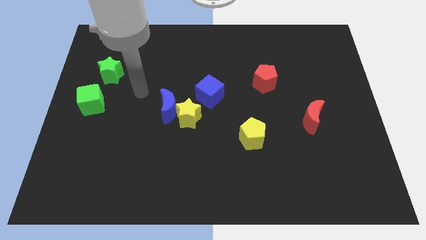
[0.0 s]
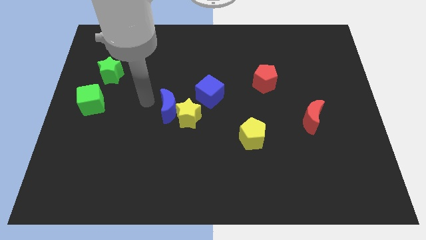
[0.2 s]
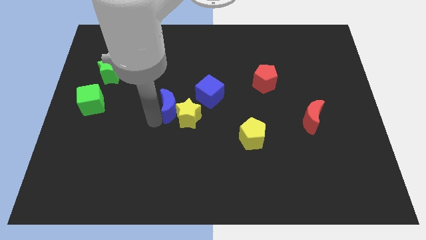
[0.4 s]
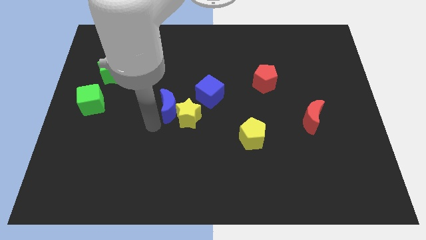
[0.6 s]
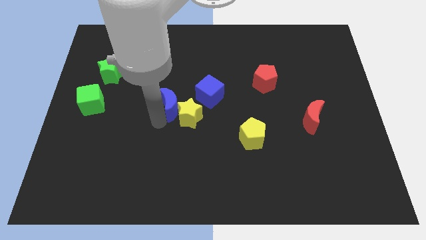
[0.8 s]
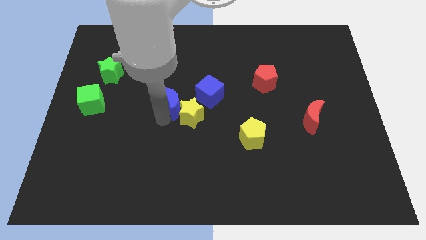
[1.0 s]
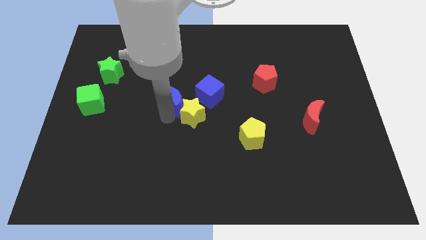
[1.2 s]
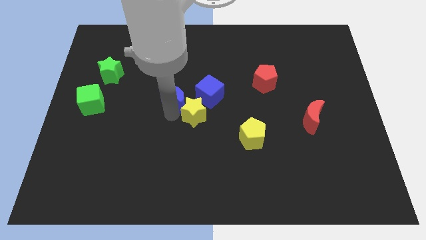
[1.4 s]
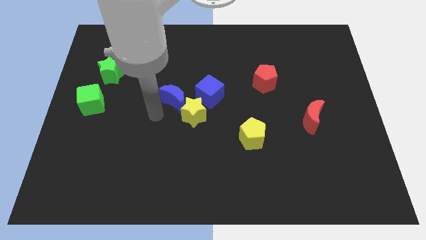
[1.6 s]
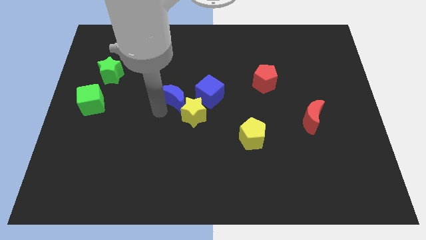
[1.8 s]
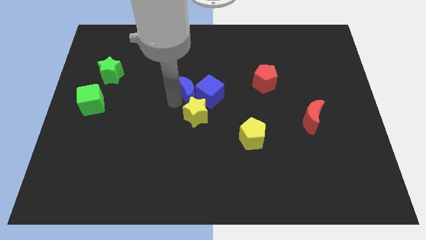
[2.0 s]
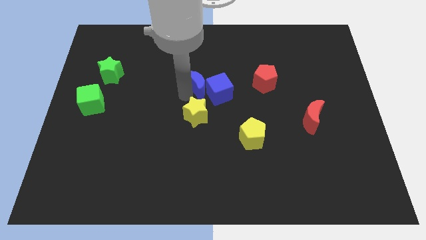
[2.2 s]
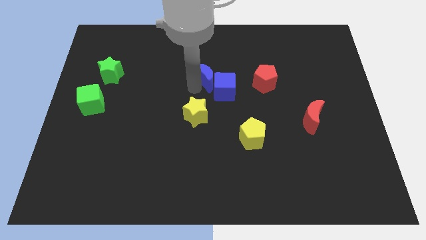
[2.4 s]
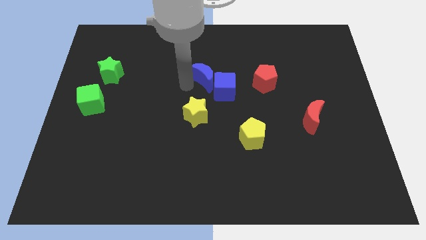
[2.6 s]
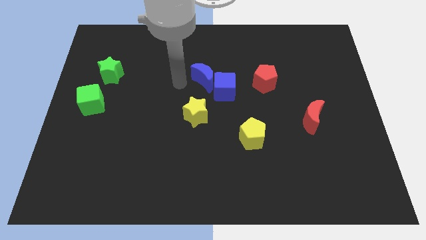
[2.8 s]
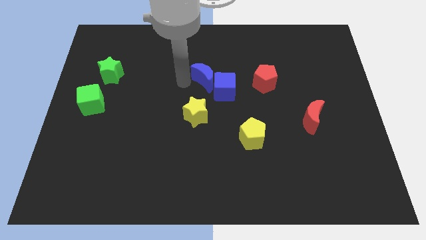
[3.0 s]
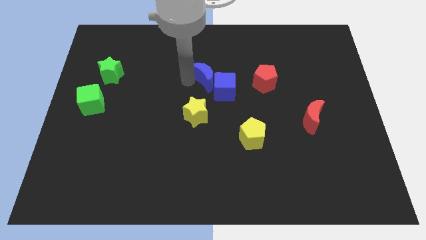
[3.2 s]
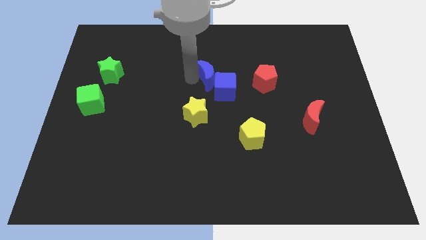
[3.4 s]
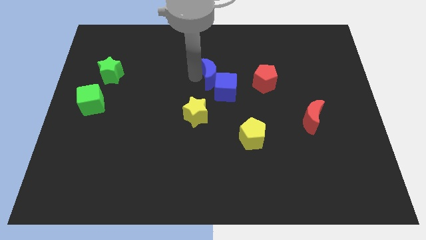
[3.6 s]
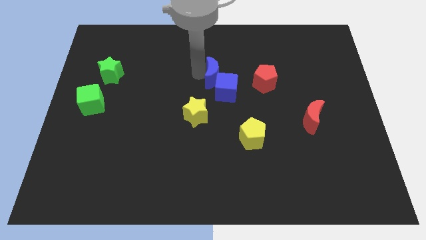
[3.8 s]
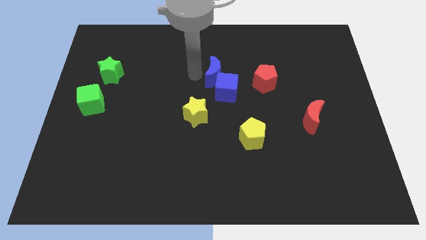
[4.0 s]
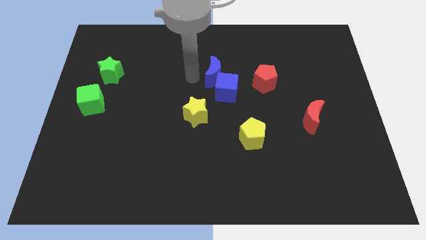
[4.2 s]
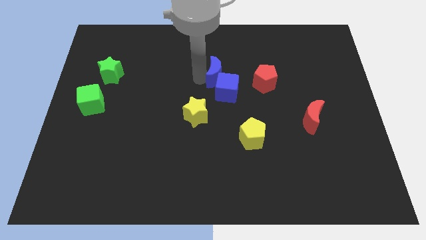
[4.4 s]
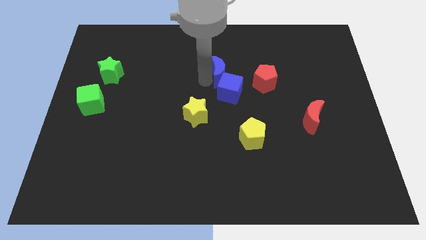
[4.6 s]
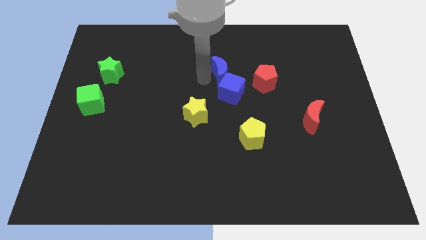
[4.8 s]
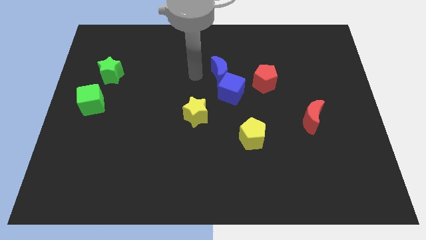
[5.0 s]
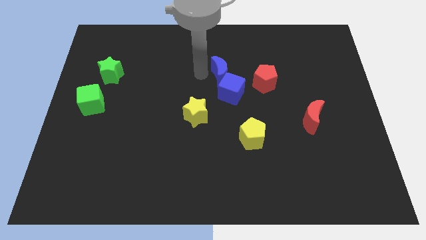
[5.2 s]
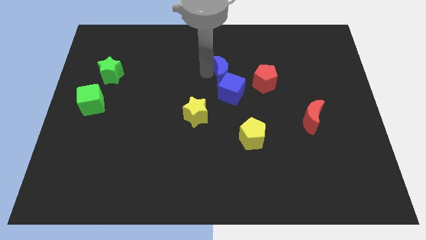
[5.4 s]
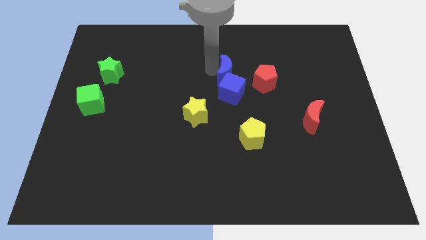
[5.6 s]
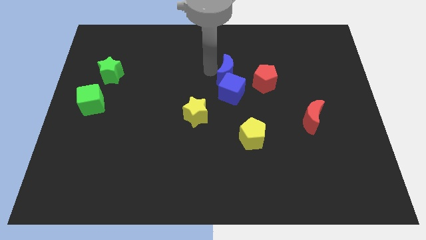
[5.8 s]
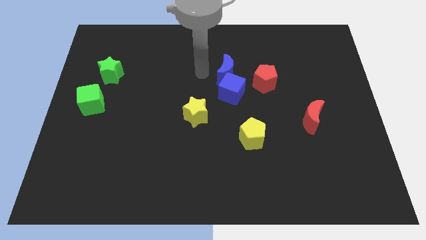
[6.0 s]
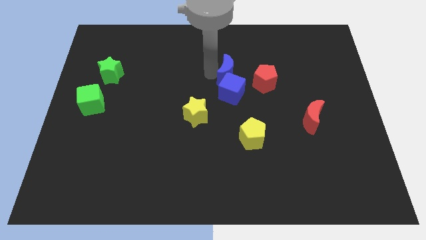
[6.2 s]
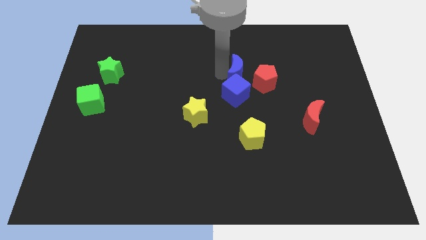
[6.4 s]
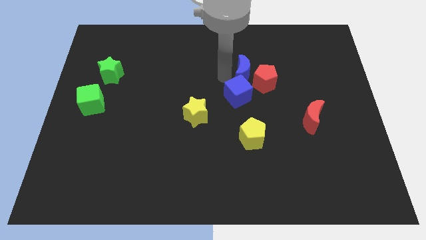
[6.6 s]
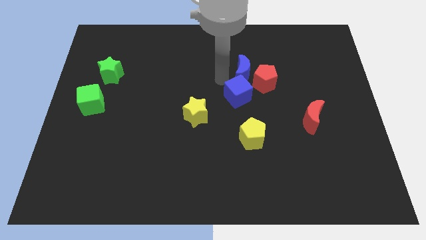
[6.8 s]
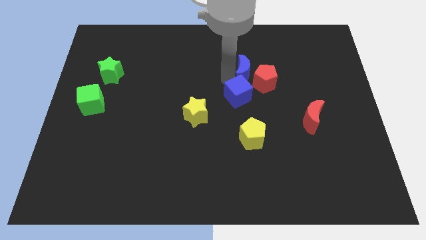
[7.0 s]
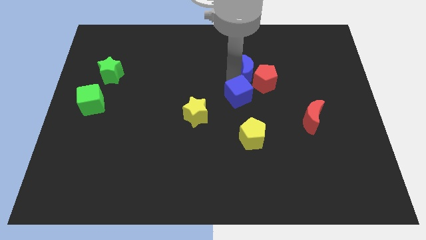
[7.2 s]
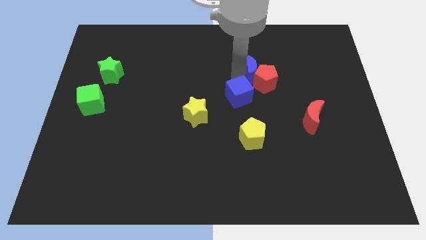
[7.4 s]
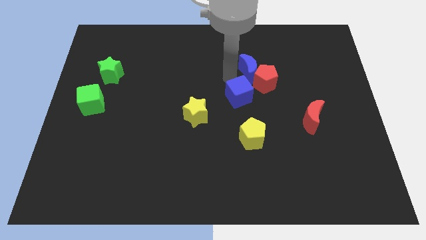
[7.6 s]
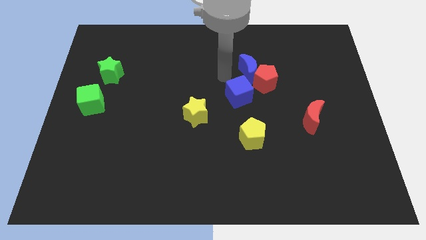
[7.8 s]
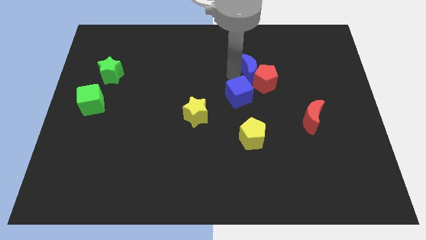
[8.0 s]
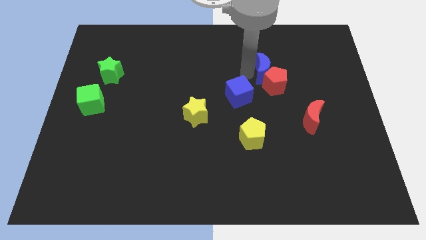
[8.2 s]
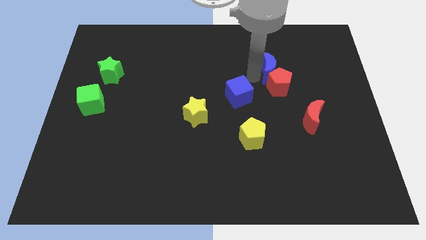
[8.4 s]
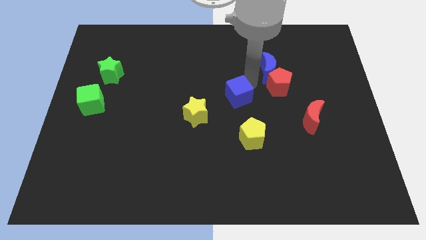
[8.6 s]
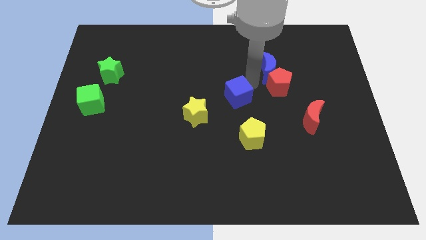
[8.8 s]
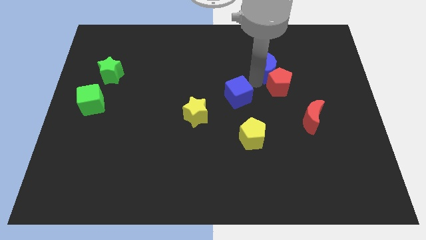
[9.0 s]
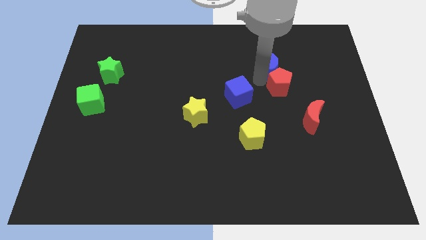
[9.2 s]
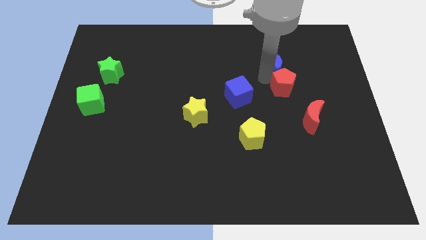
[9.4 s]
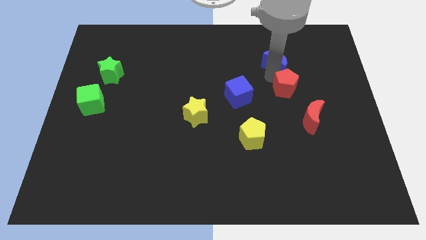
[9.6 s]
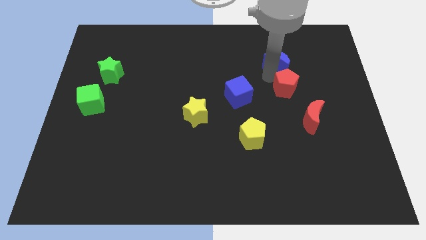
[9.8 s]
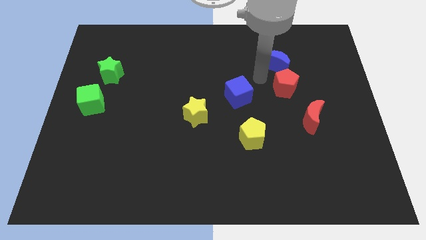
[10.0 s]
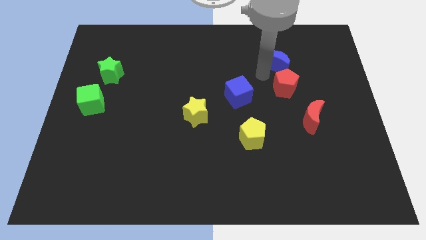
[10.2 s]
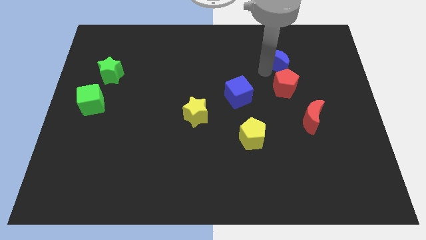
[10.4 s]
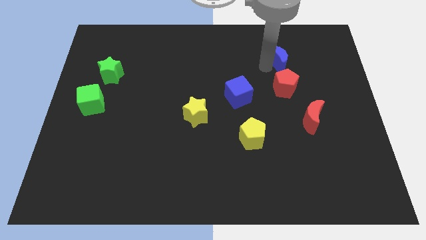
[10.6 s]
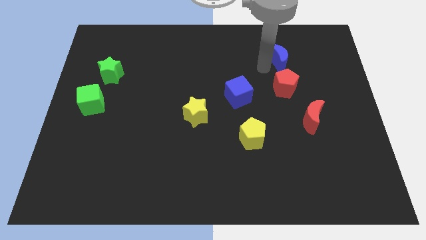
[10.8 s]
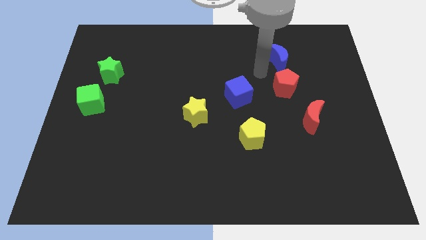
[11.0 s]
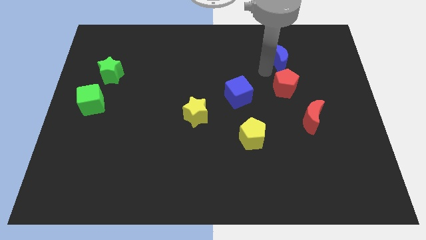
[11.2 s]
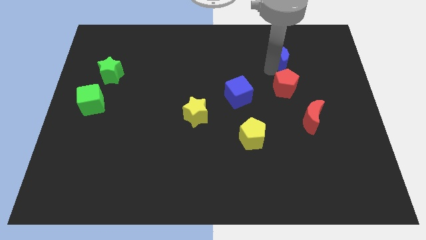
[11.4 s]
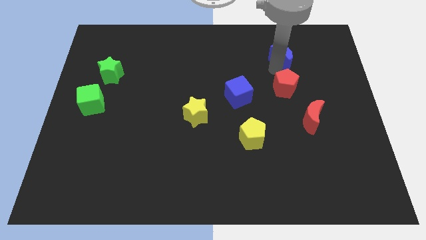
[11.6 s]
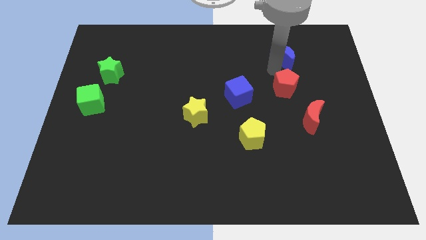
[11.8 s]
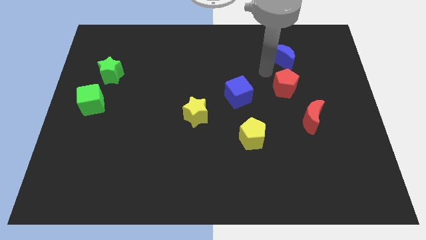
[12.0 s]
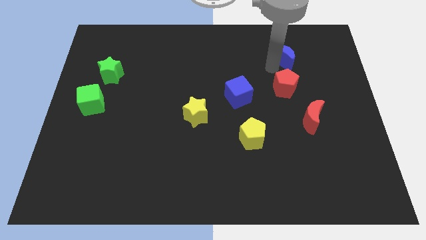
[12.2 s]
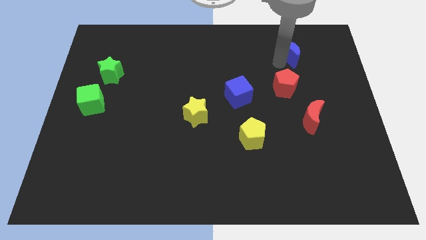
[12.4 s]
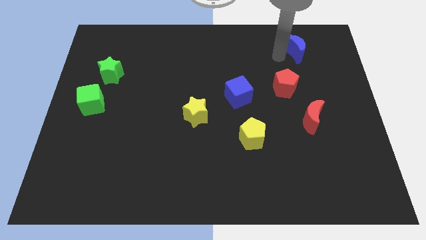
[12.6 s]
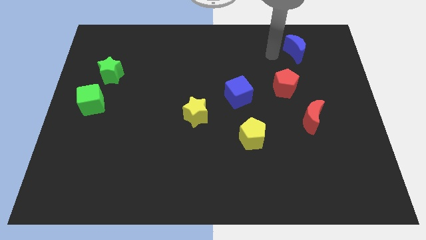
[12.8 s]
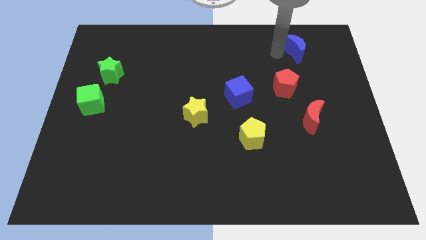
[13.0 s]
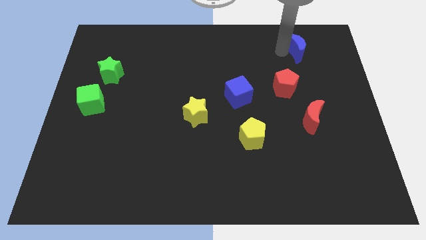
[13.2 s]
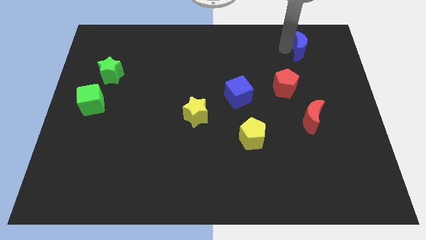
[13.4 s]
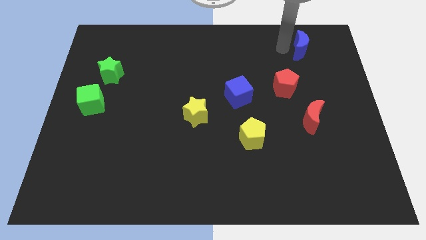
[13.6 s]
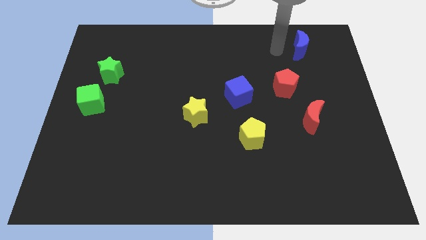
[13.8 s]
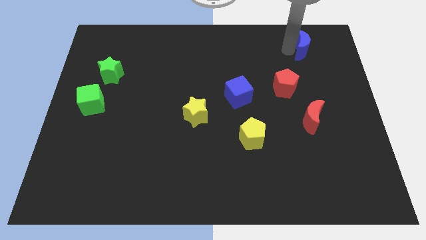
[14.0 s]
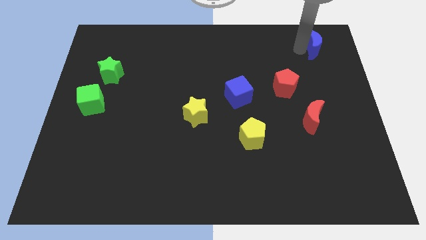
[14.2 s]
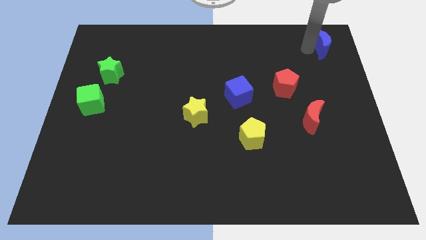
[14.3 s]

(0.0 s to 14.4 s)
move the blue moon to the upper right corner
